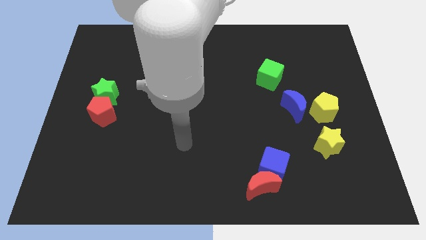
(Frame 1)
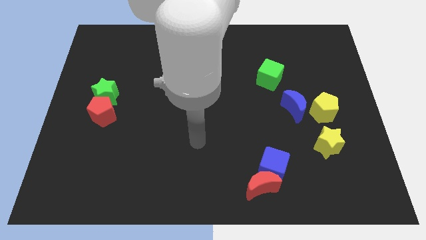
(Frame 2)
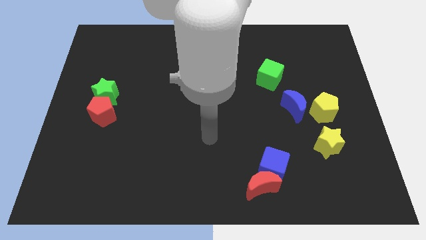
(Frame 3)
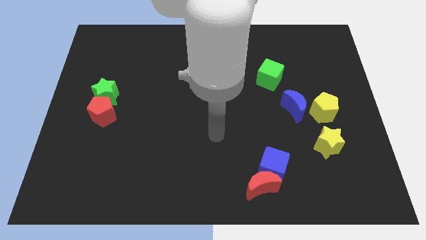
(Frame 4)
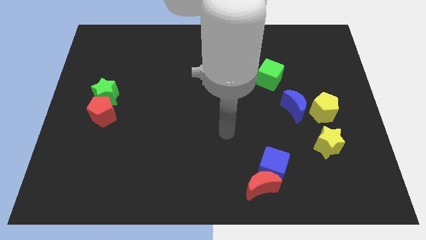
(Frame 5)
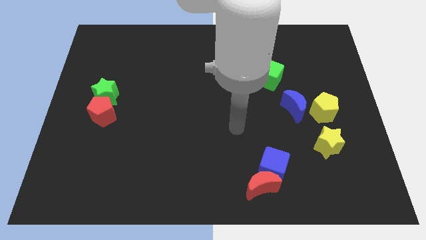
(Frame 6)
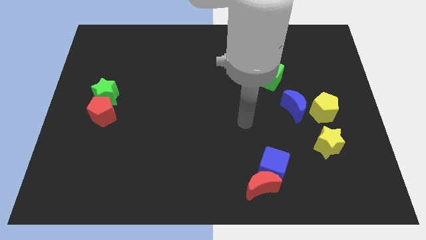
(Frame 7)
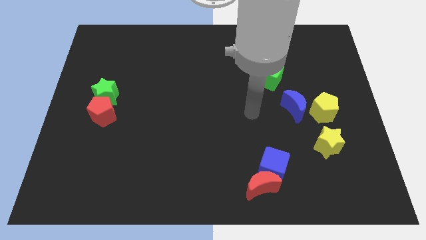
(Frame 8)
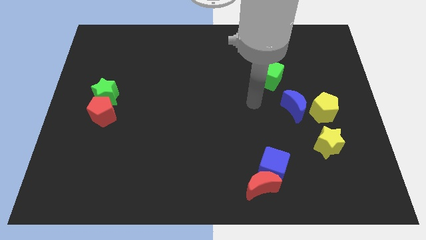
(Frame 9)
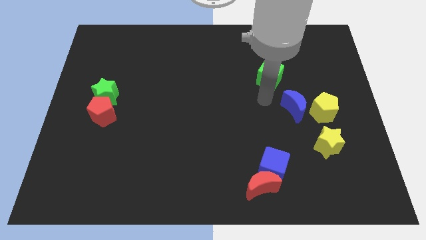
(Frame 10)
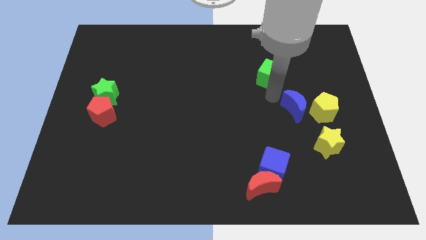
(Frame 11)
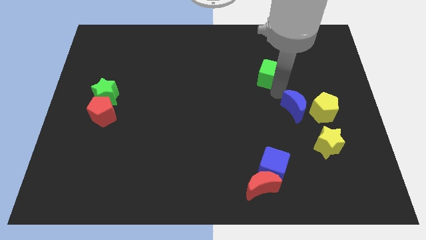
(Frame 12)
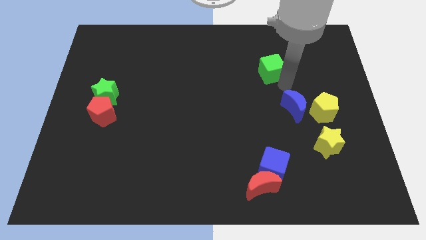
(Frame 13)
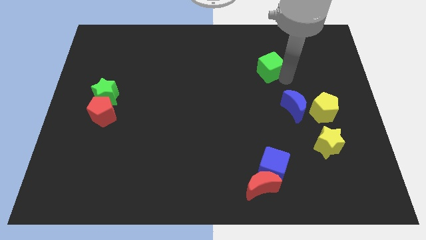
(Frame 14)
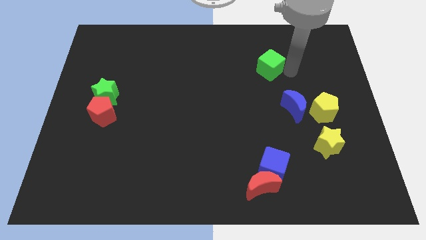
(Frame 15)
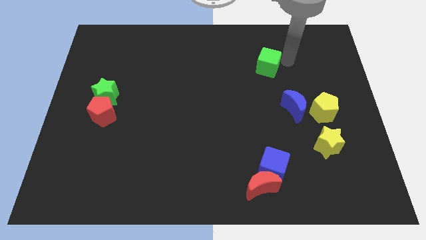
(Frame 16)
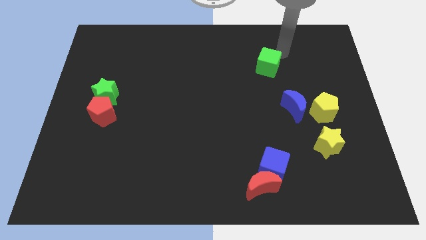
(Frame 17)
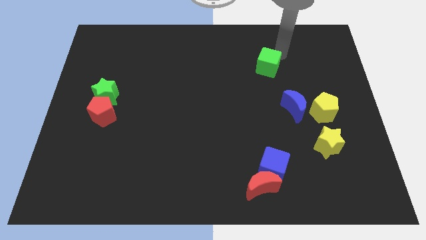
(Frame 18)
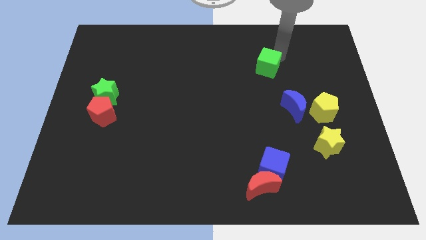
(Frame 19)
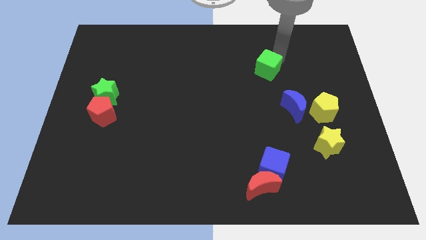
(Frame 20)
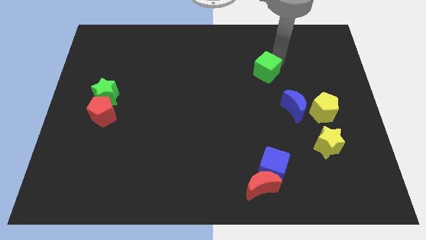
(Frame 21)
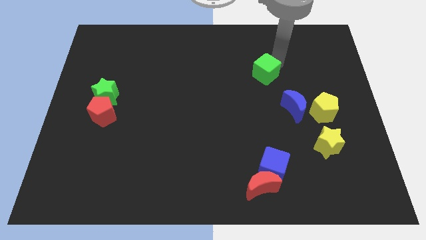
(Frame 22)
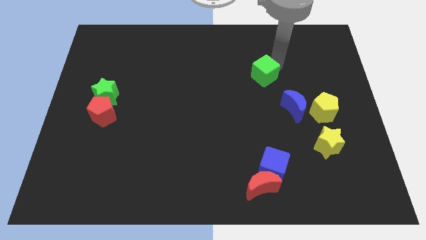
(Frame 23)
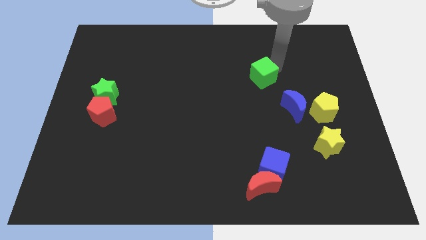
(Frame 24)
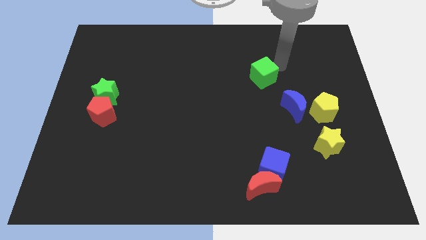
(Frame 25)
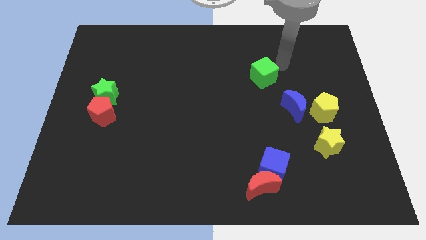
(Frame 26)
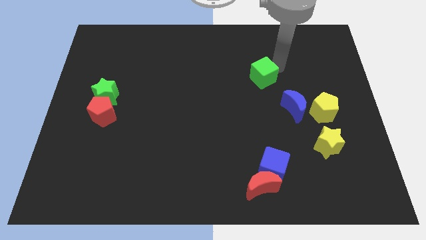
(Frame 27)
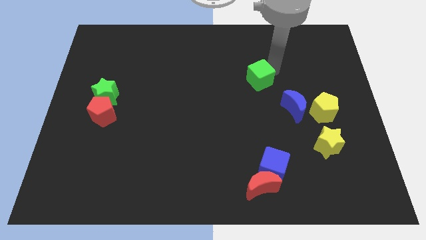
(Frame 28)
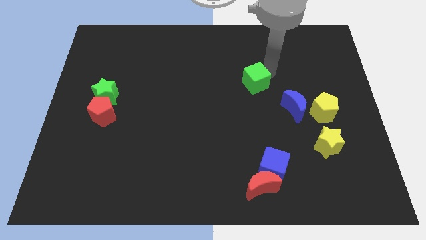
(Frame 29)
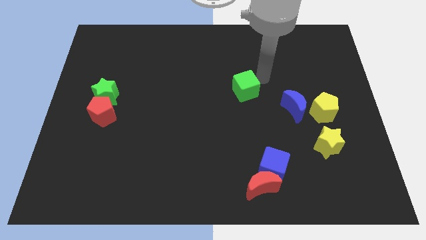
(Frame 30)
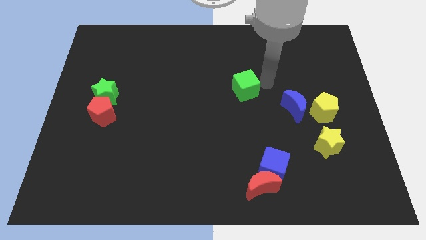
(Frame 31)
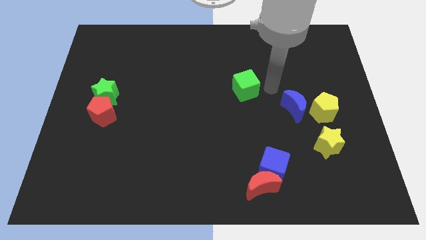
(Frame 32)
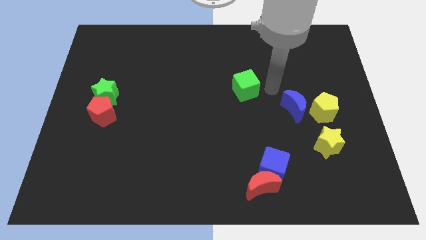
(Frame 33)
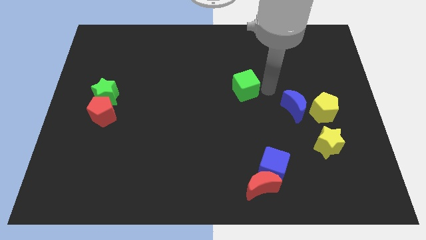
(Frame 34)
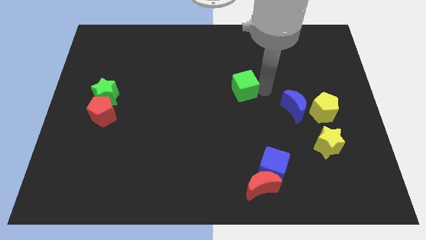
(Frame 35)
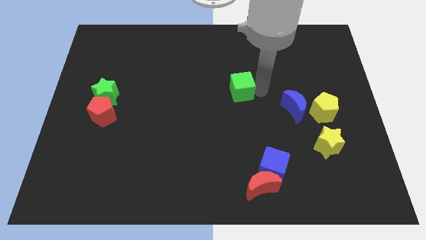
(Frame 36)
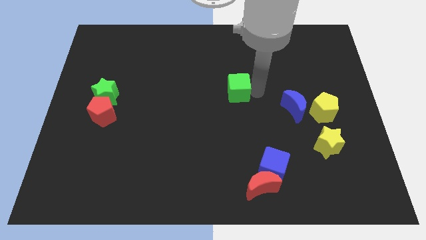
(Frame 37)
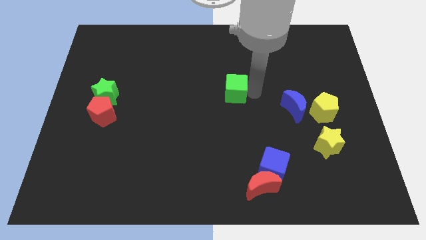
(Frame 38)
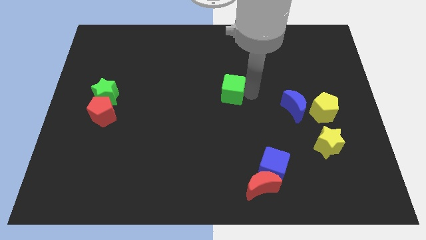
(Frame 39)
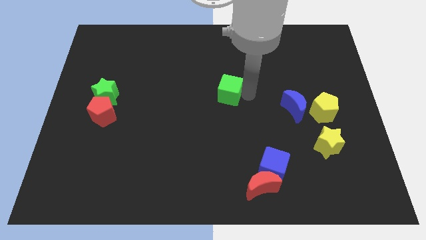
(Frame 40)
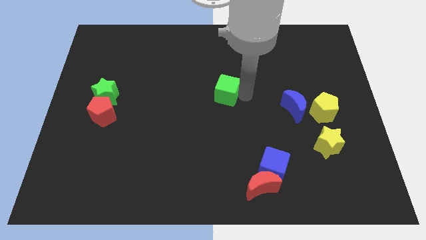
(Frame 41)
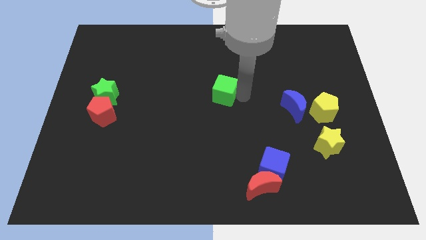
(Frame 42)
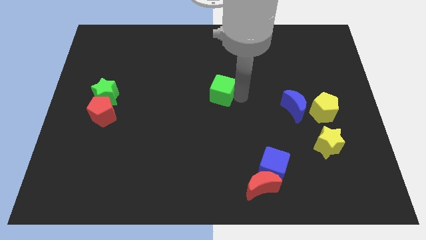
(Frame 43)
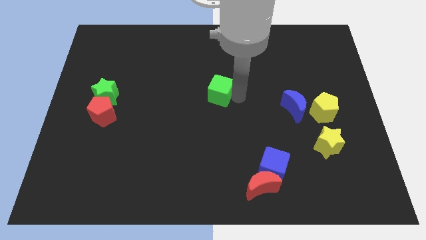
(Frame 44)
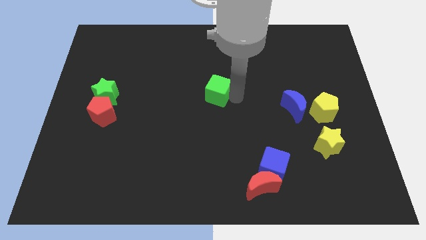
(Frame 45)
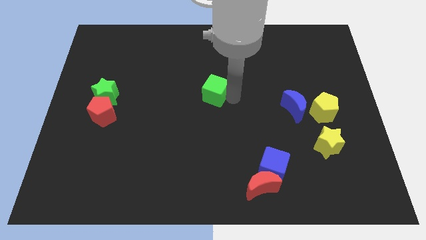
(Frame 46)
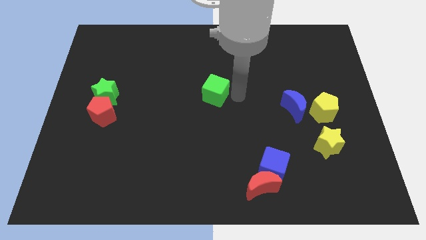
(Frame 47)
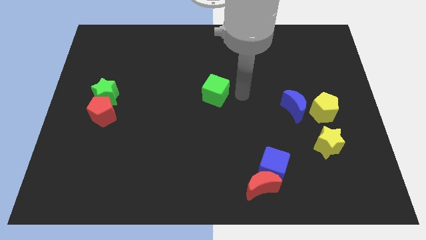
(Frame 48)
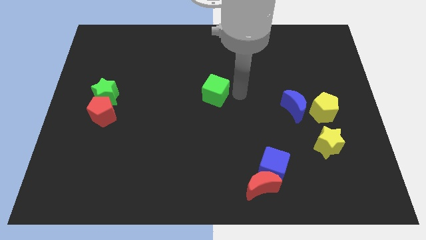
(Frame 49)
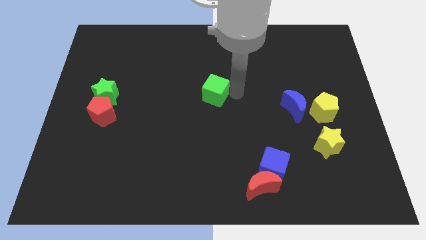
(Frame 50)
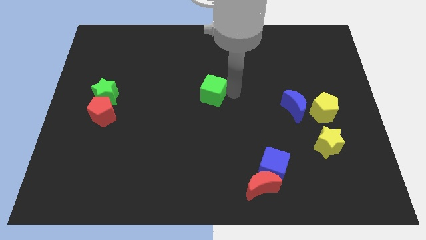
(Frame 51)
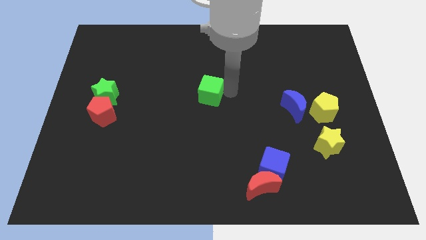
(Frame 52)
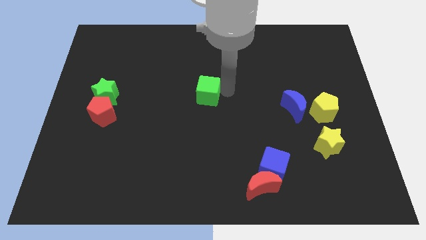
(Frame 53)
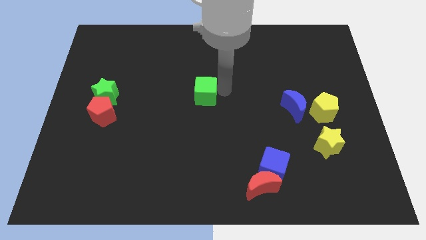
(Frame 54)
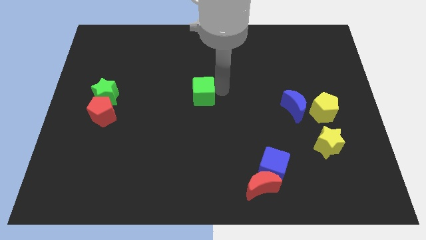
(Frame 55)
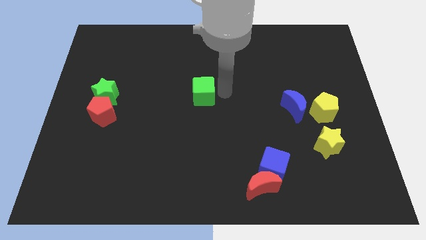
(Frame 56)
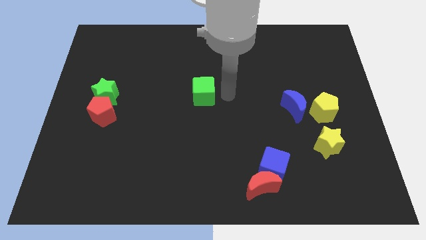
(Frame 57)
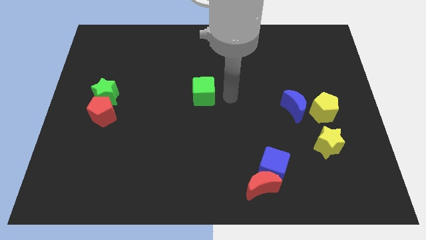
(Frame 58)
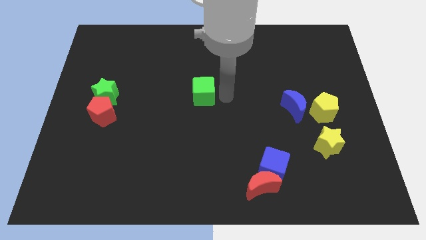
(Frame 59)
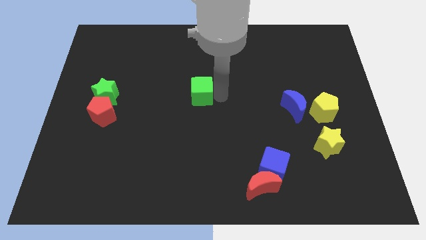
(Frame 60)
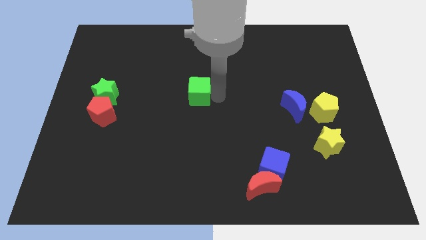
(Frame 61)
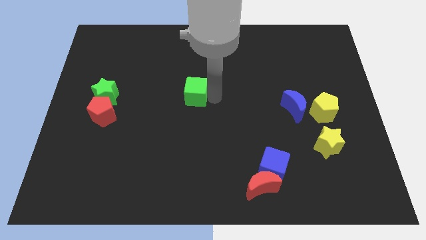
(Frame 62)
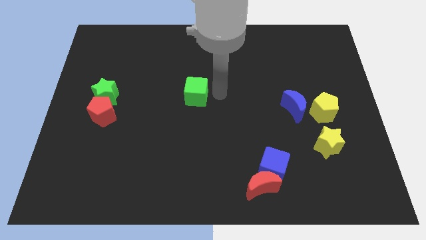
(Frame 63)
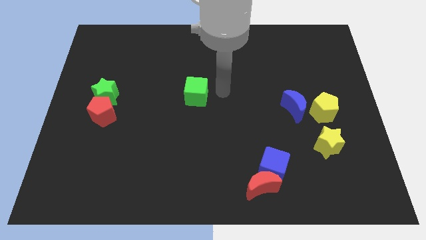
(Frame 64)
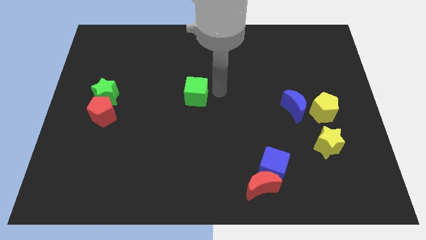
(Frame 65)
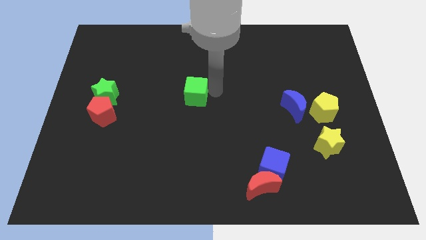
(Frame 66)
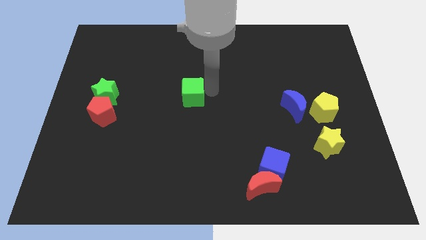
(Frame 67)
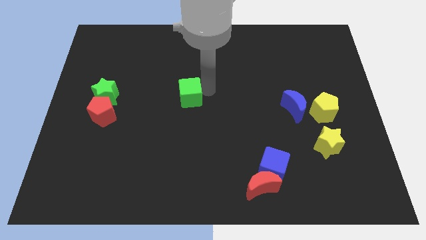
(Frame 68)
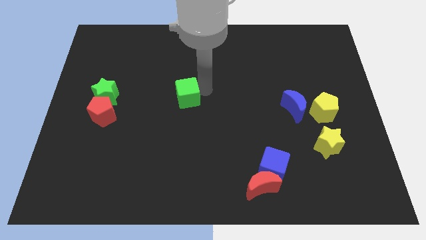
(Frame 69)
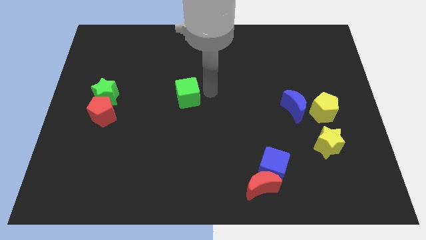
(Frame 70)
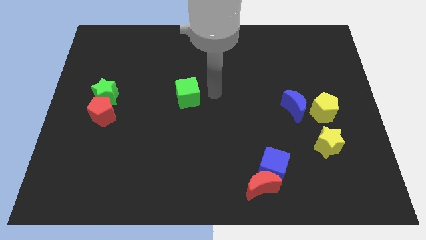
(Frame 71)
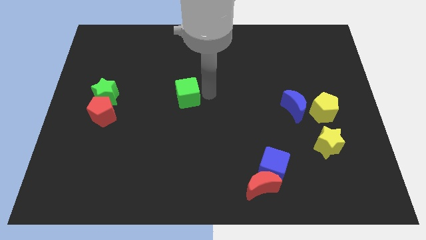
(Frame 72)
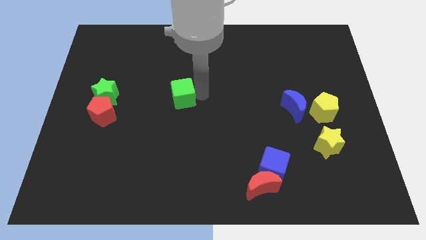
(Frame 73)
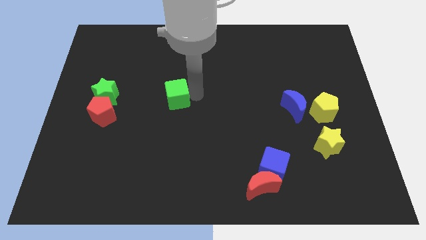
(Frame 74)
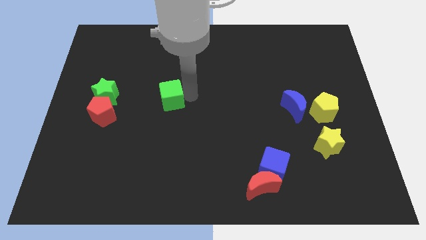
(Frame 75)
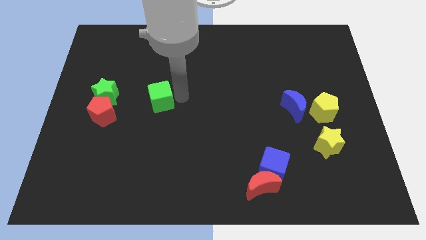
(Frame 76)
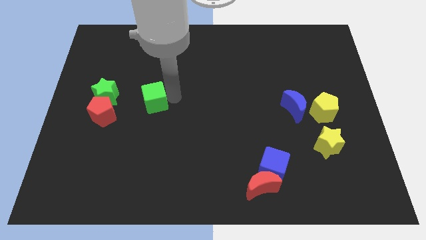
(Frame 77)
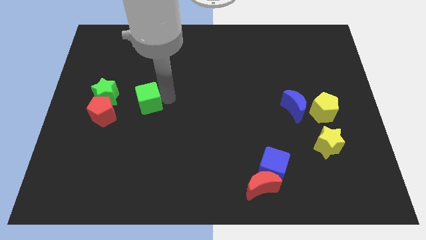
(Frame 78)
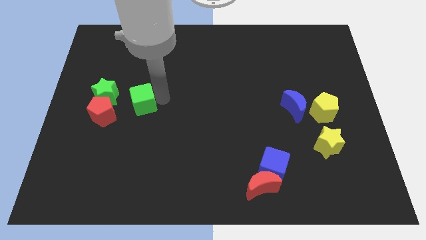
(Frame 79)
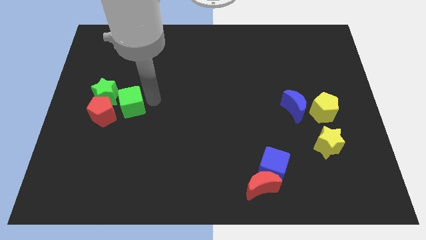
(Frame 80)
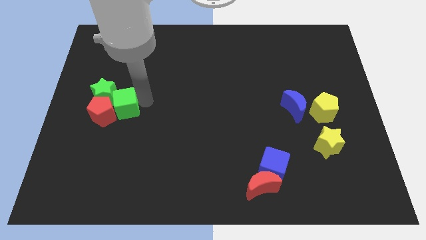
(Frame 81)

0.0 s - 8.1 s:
put the green cube close to the red pentagon

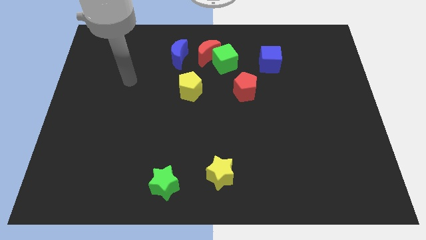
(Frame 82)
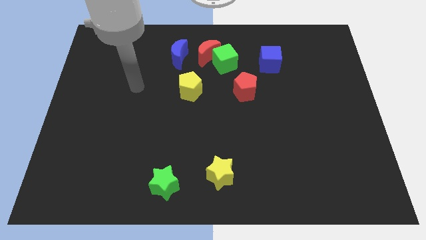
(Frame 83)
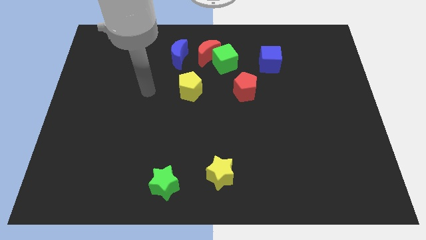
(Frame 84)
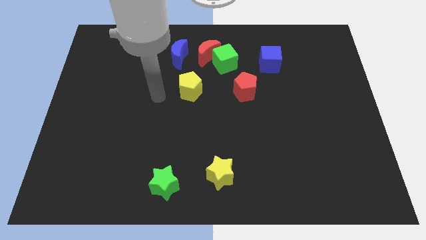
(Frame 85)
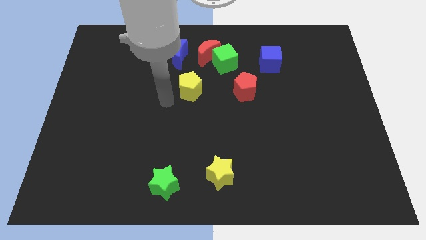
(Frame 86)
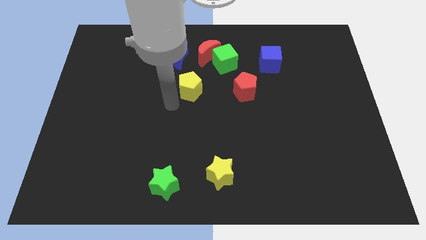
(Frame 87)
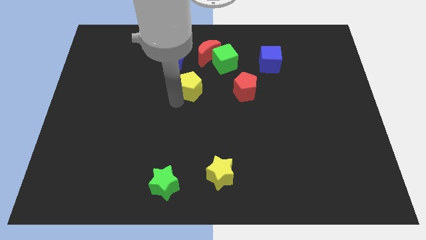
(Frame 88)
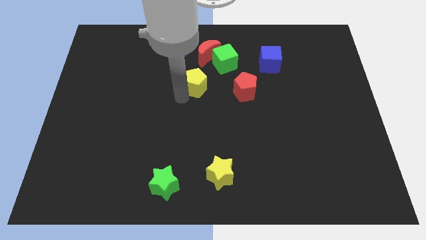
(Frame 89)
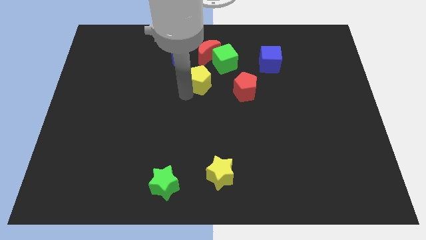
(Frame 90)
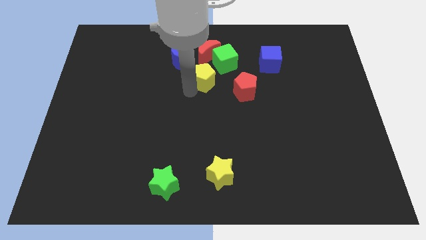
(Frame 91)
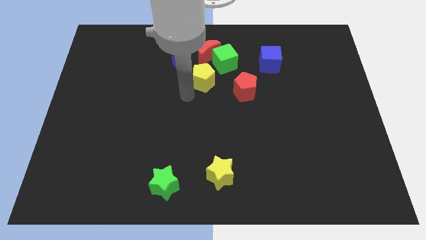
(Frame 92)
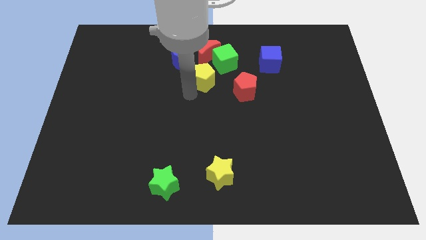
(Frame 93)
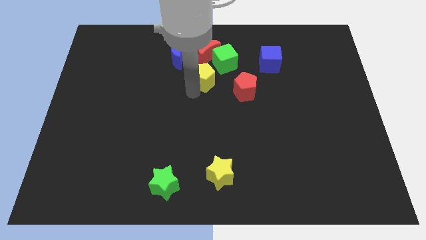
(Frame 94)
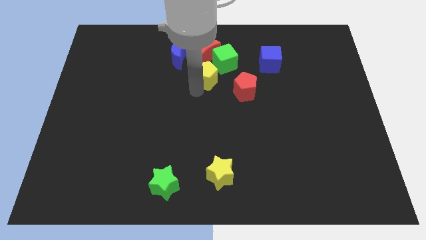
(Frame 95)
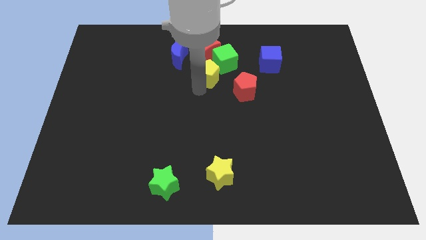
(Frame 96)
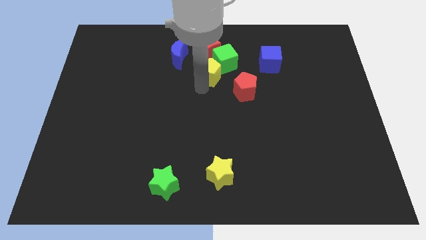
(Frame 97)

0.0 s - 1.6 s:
slide the yellow pentagon towards the green cube
